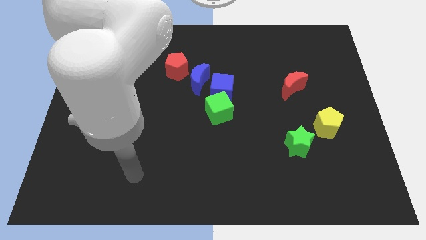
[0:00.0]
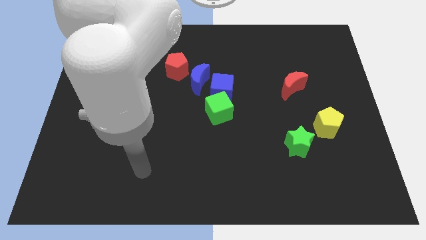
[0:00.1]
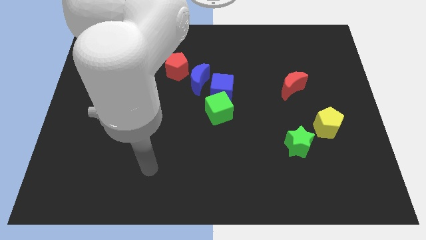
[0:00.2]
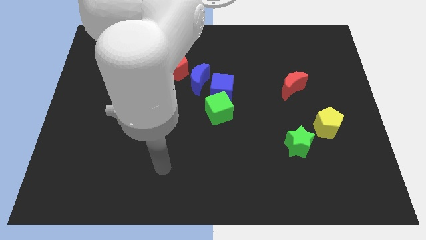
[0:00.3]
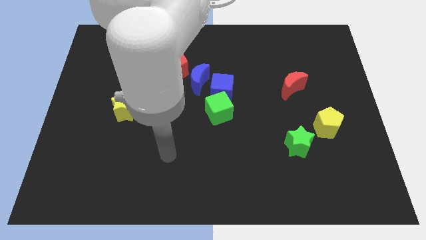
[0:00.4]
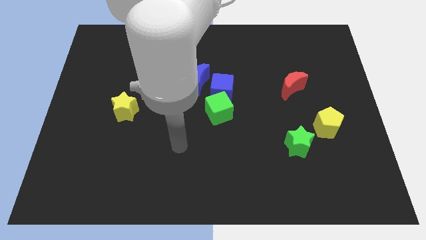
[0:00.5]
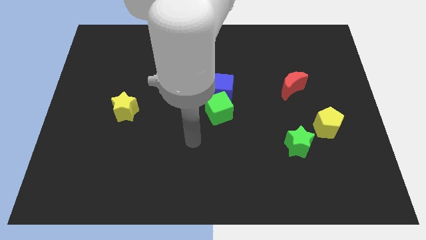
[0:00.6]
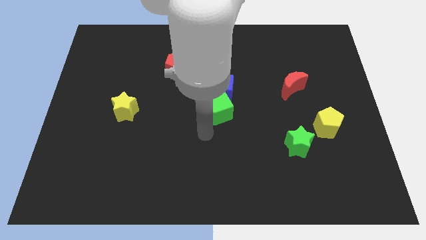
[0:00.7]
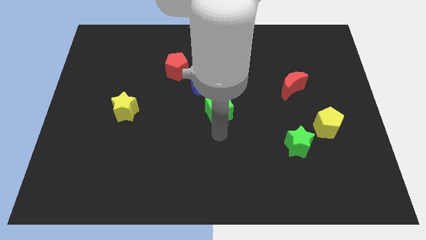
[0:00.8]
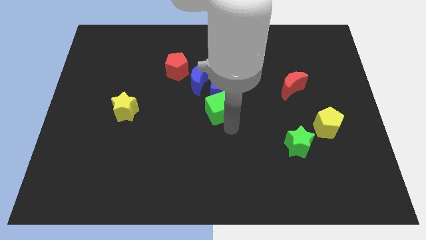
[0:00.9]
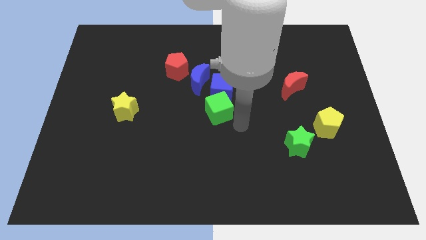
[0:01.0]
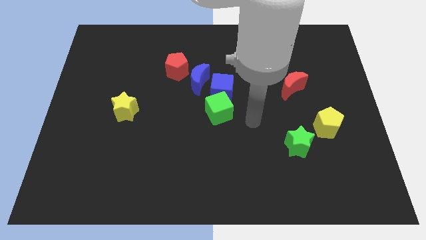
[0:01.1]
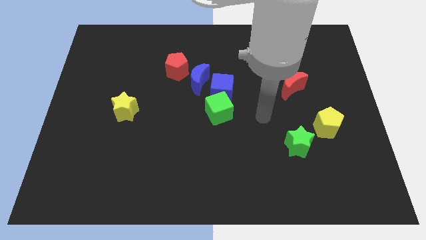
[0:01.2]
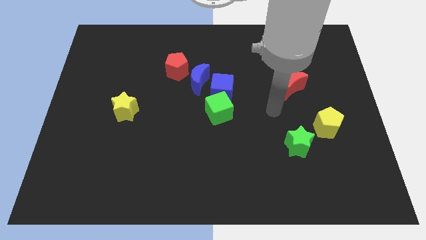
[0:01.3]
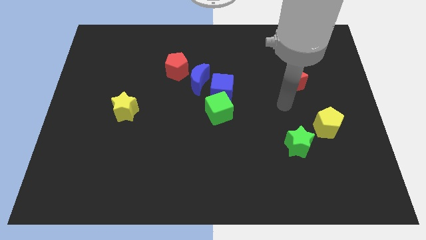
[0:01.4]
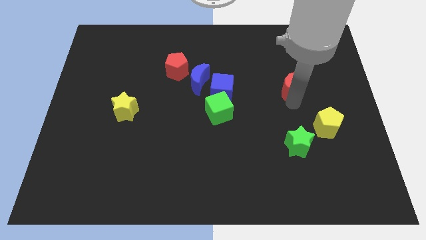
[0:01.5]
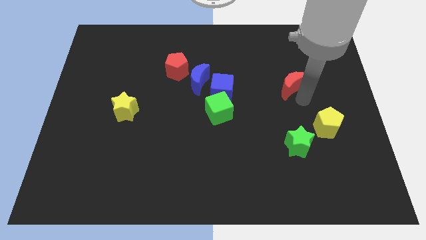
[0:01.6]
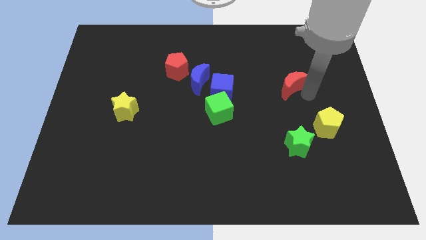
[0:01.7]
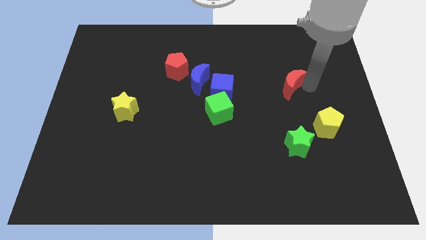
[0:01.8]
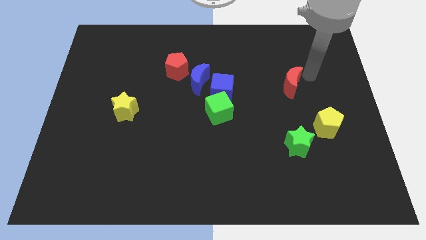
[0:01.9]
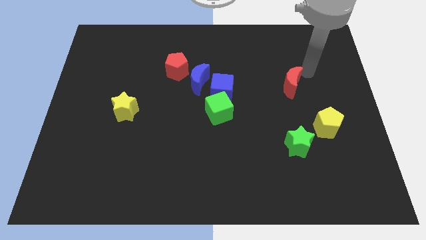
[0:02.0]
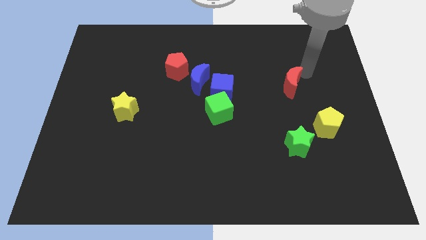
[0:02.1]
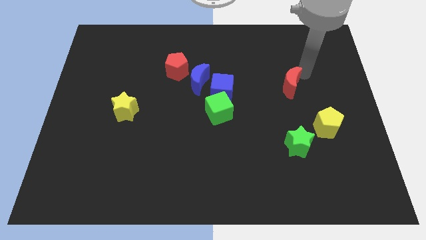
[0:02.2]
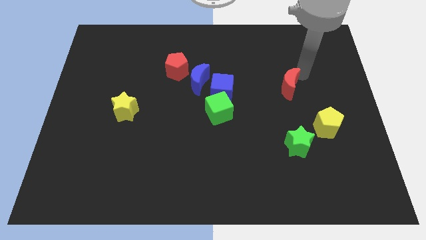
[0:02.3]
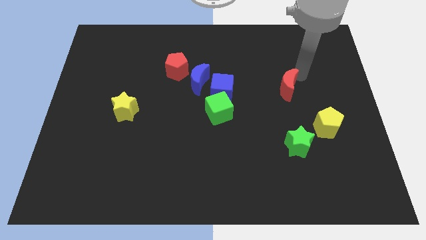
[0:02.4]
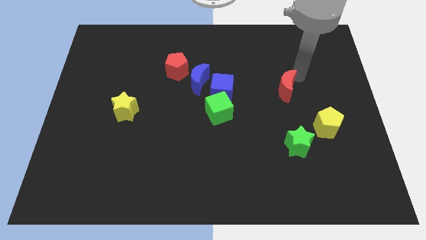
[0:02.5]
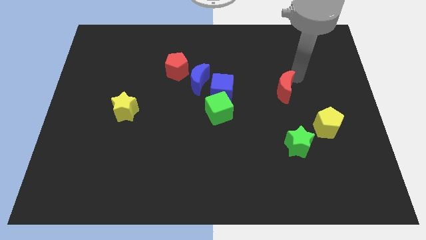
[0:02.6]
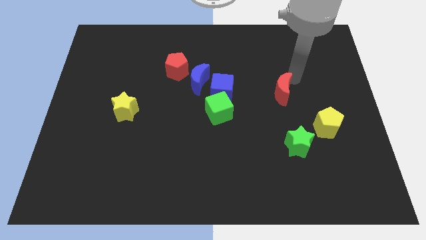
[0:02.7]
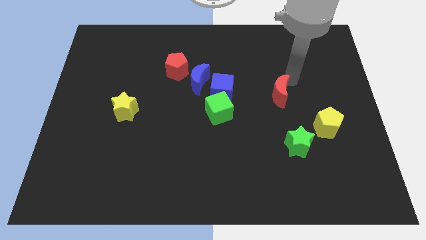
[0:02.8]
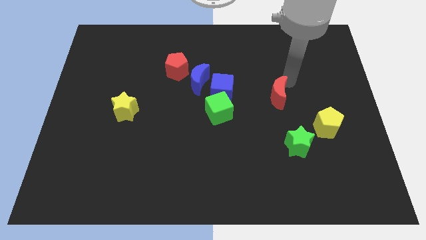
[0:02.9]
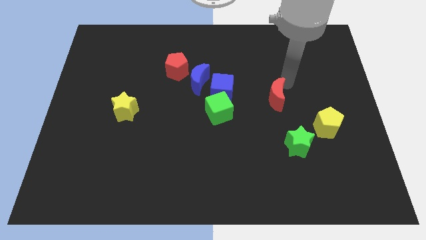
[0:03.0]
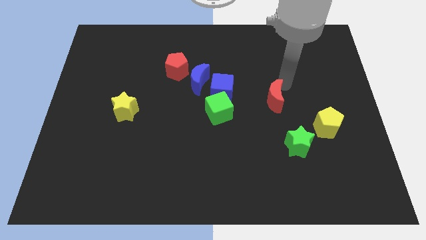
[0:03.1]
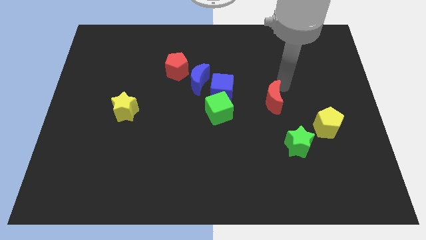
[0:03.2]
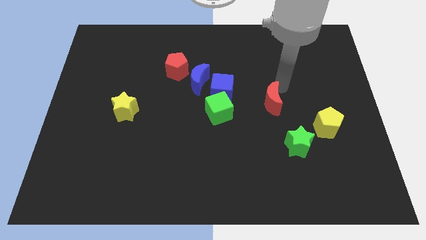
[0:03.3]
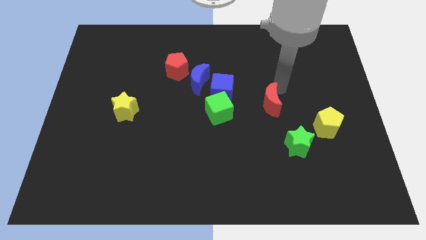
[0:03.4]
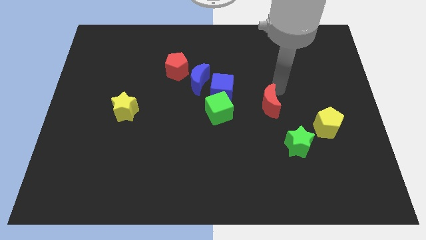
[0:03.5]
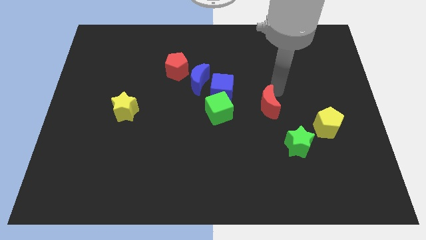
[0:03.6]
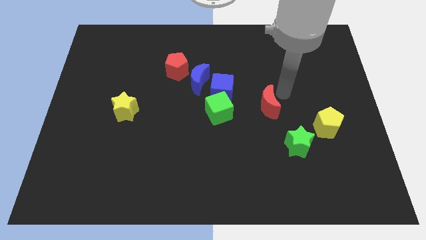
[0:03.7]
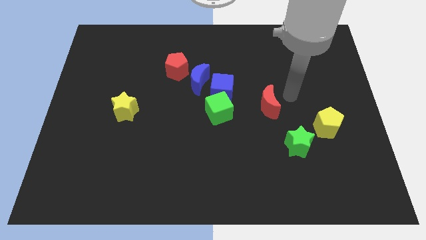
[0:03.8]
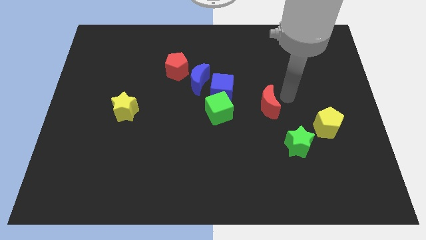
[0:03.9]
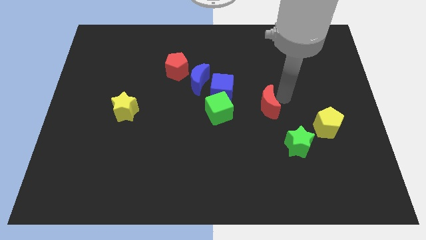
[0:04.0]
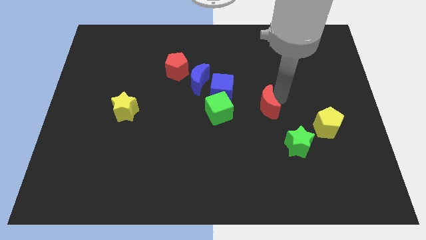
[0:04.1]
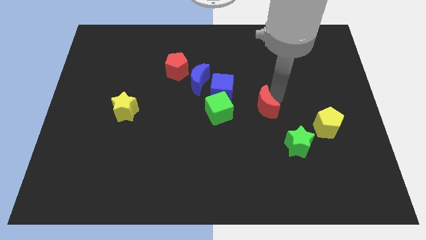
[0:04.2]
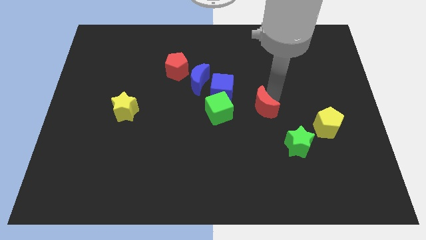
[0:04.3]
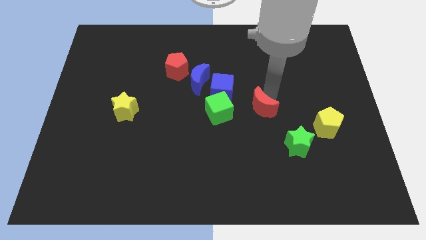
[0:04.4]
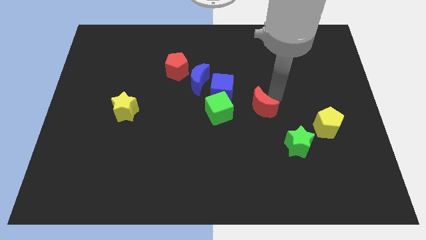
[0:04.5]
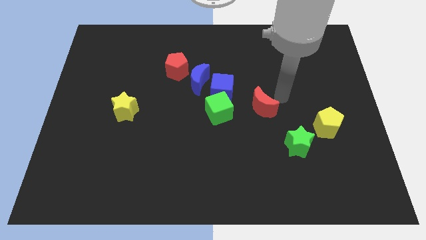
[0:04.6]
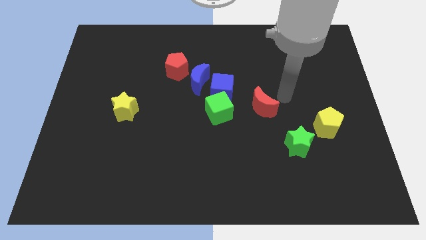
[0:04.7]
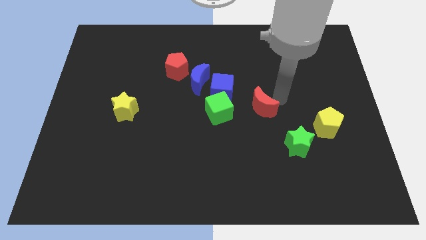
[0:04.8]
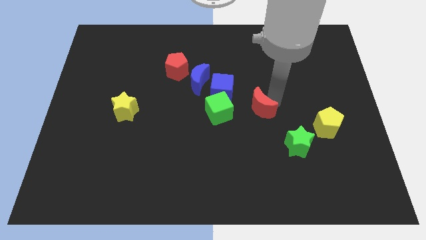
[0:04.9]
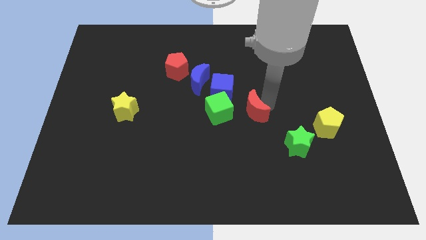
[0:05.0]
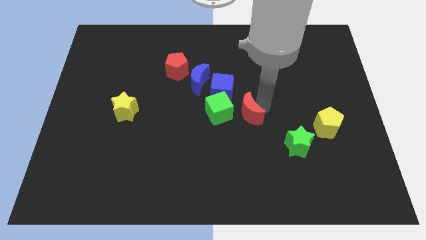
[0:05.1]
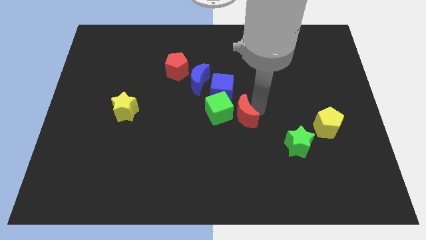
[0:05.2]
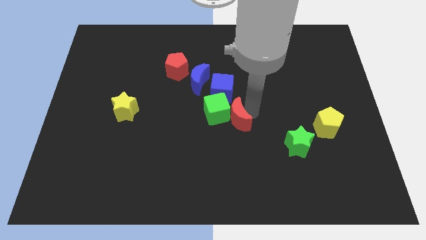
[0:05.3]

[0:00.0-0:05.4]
put the red moon to the bottom side of the blue cube

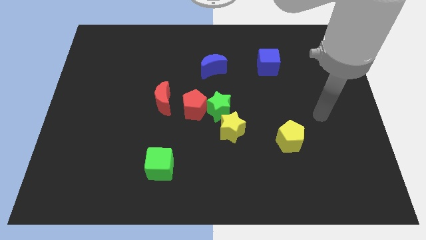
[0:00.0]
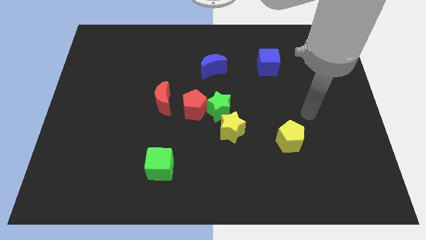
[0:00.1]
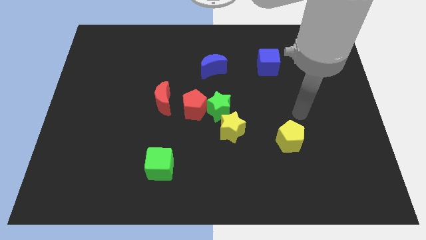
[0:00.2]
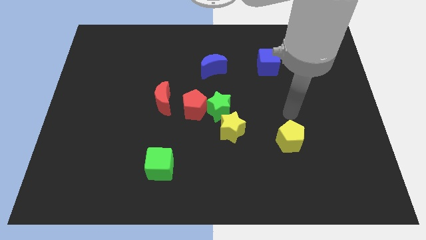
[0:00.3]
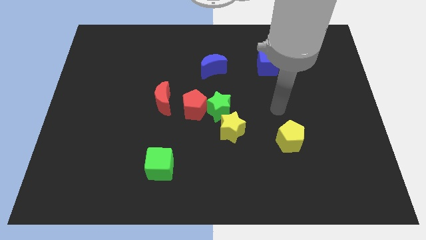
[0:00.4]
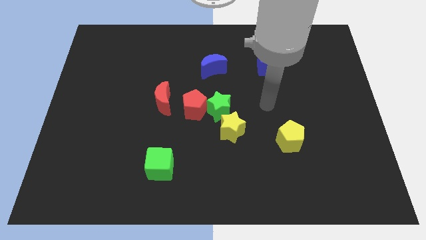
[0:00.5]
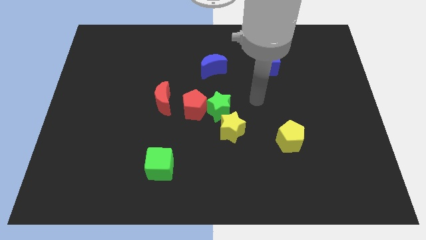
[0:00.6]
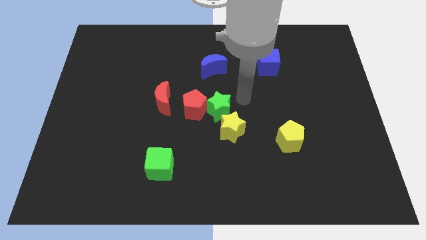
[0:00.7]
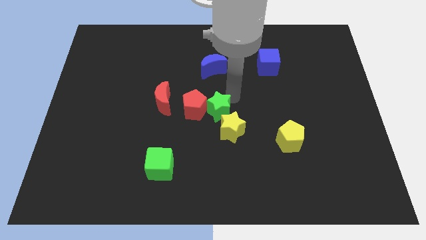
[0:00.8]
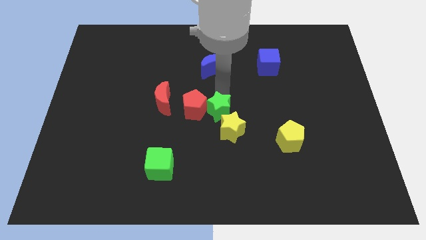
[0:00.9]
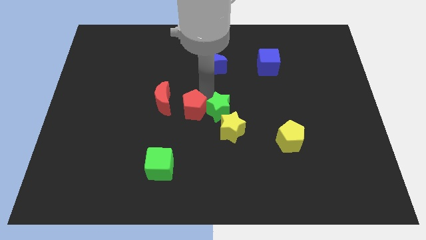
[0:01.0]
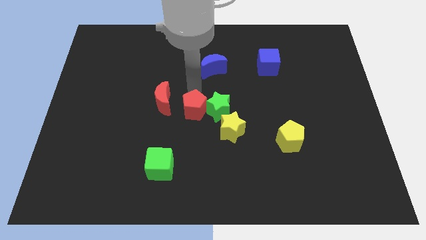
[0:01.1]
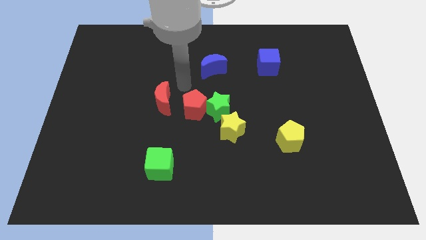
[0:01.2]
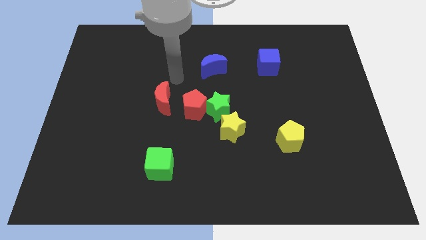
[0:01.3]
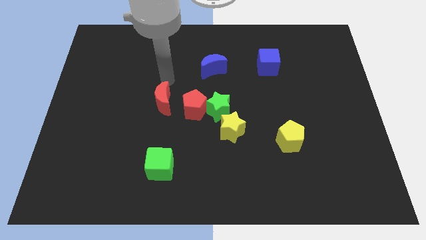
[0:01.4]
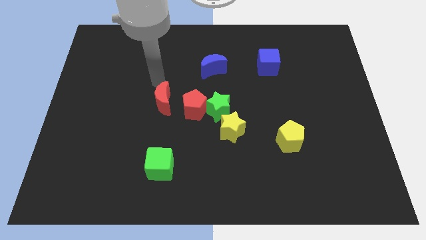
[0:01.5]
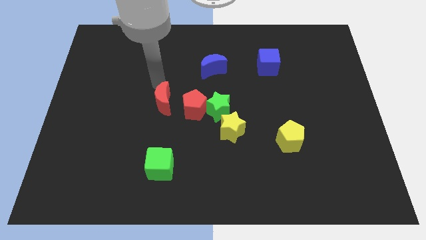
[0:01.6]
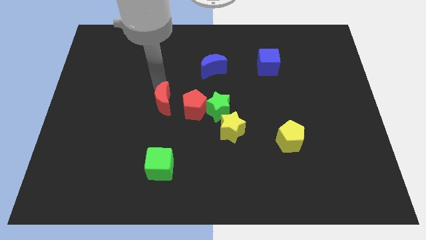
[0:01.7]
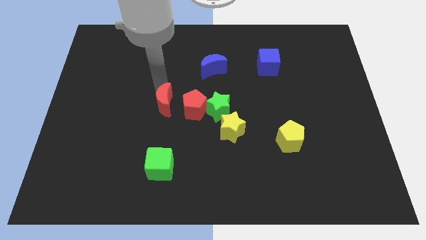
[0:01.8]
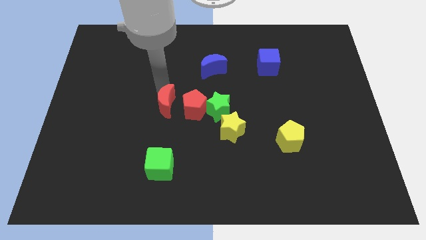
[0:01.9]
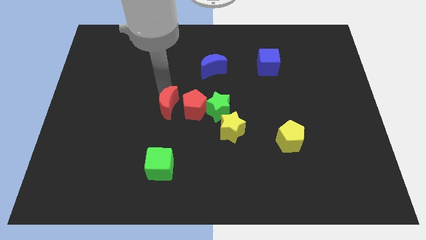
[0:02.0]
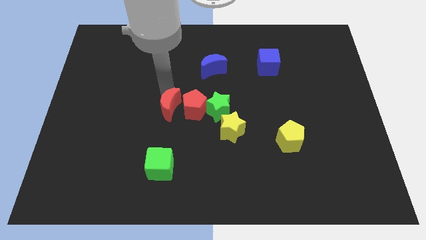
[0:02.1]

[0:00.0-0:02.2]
push the red moon to the bottom left side of the red pentagon
